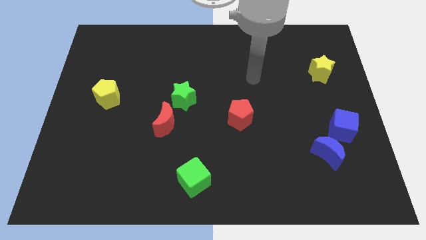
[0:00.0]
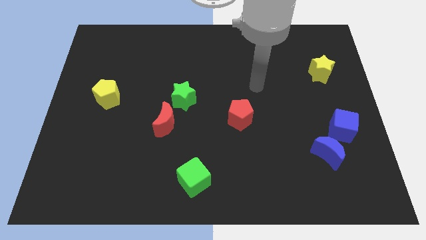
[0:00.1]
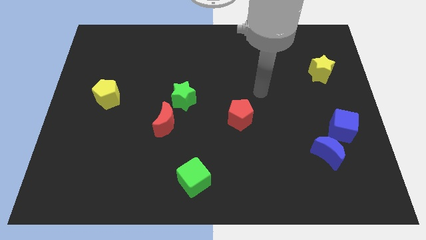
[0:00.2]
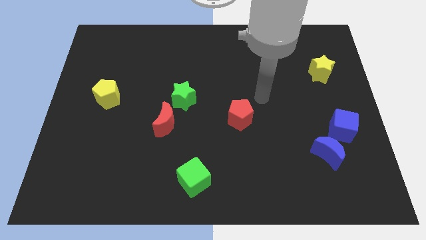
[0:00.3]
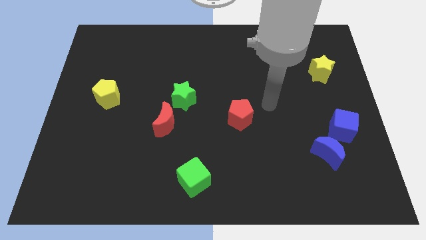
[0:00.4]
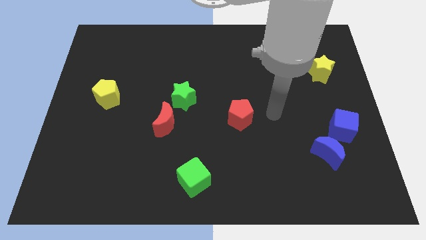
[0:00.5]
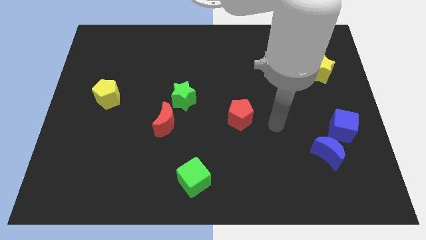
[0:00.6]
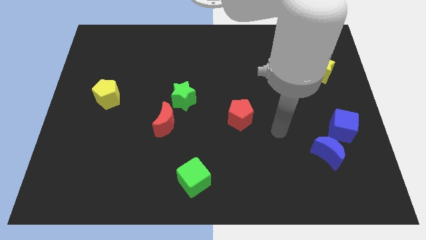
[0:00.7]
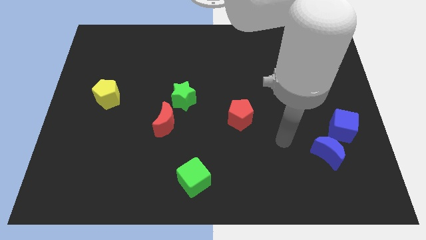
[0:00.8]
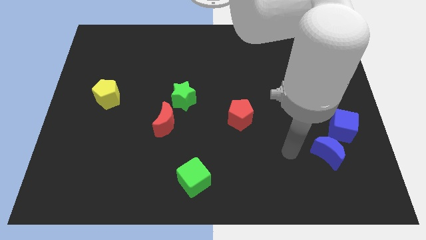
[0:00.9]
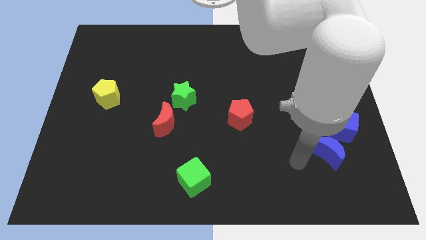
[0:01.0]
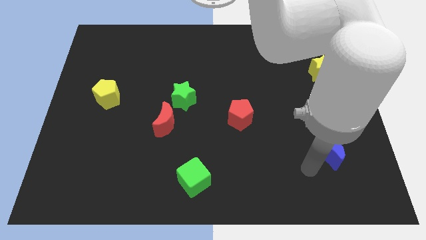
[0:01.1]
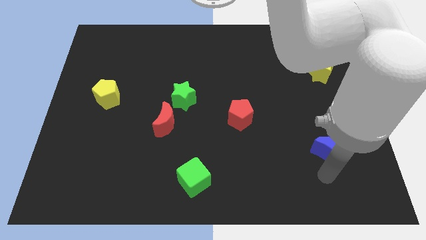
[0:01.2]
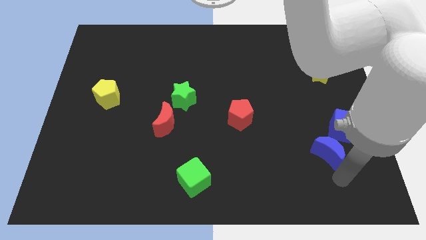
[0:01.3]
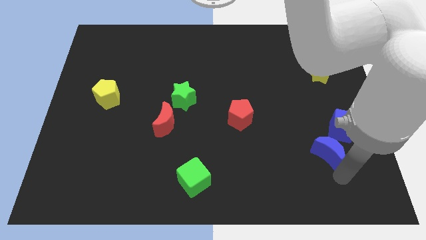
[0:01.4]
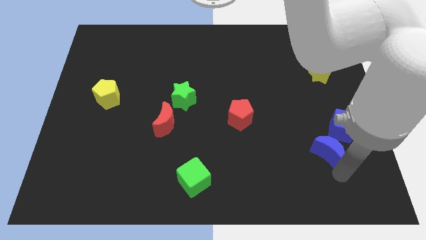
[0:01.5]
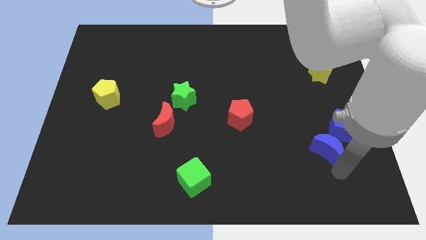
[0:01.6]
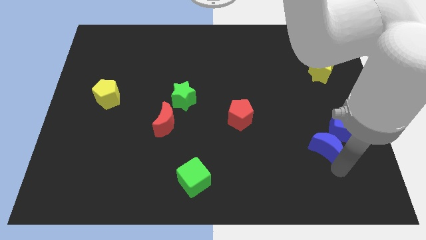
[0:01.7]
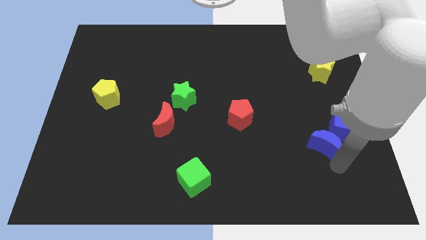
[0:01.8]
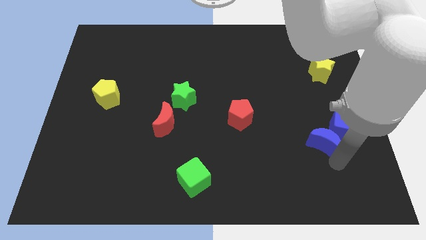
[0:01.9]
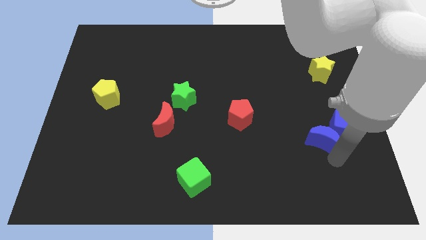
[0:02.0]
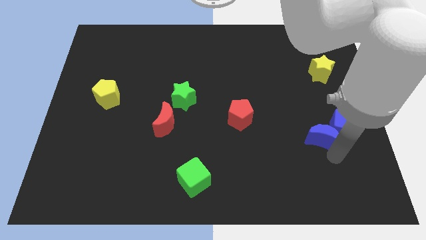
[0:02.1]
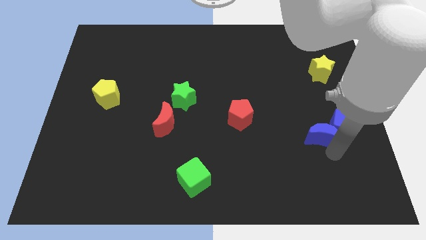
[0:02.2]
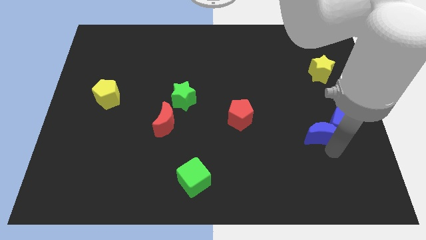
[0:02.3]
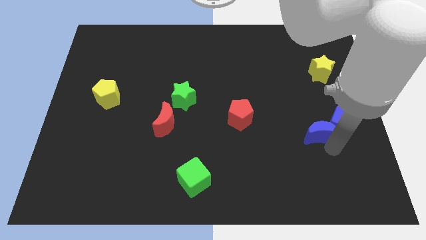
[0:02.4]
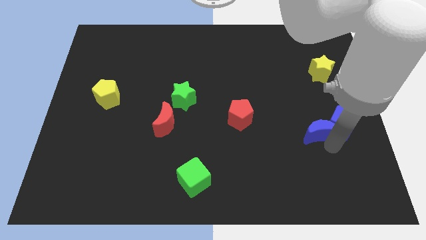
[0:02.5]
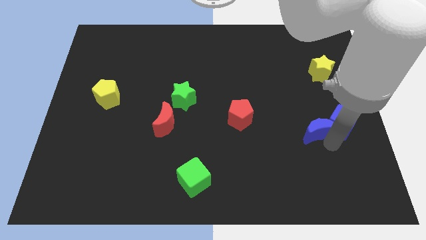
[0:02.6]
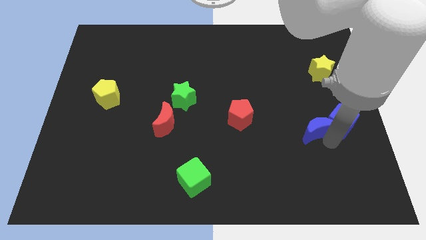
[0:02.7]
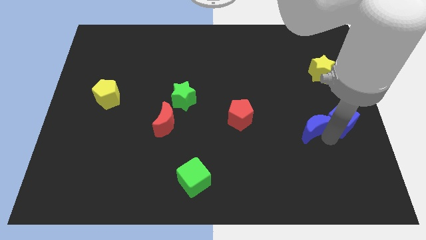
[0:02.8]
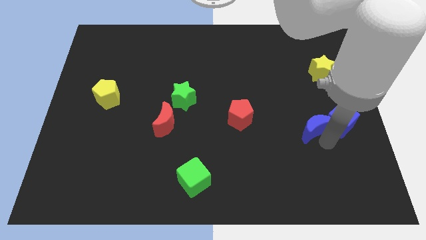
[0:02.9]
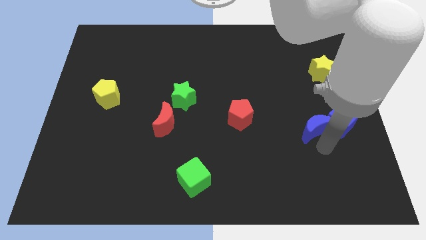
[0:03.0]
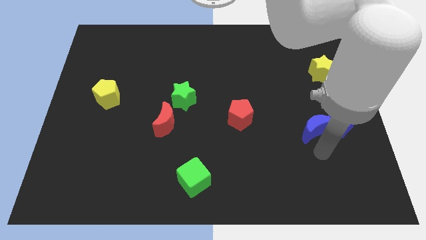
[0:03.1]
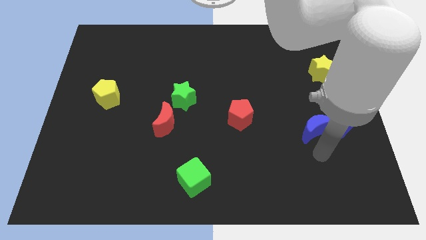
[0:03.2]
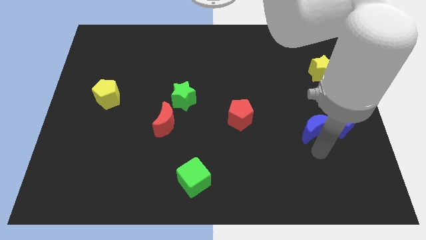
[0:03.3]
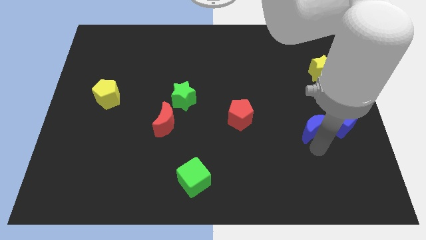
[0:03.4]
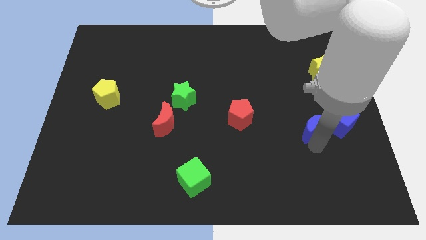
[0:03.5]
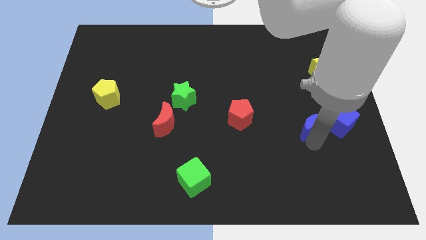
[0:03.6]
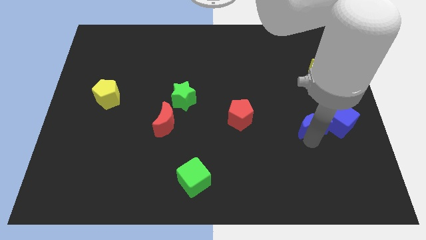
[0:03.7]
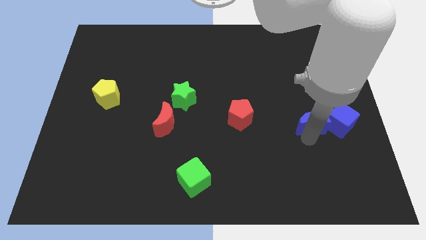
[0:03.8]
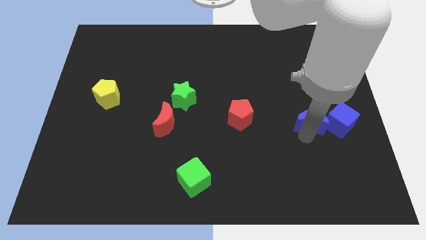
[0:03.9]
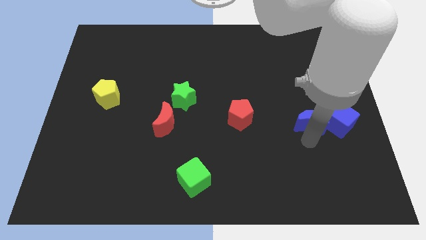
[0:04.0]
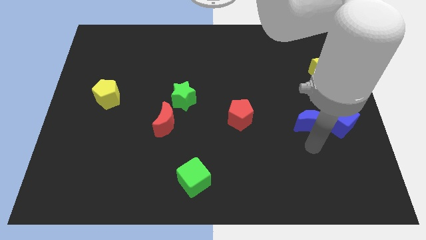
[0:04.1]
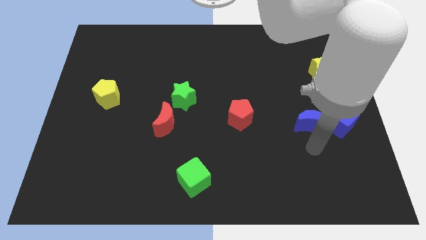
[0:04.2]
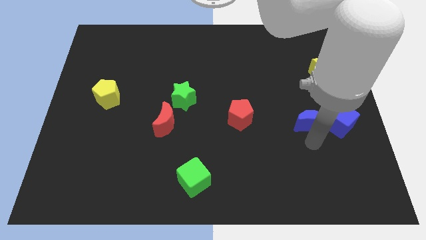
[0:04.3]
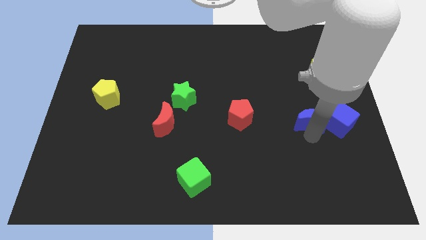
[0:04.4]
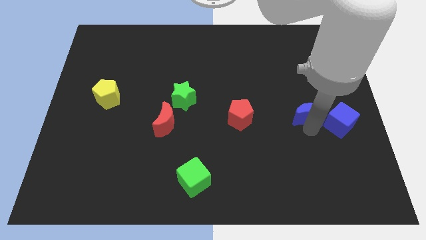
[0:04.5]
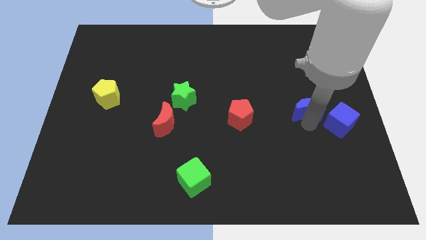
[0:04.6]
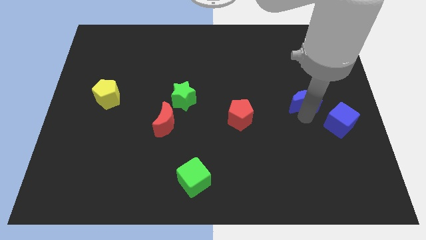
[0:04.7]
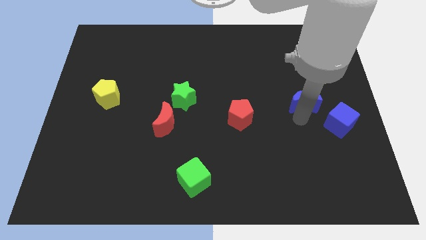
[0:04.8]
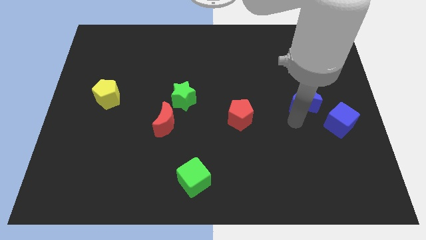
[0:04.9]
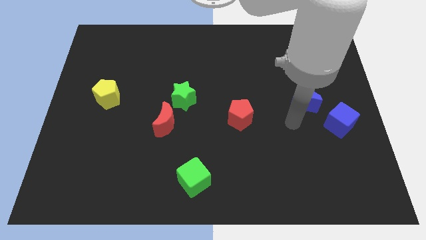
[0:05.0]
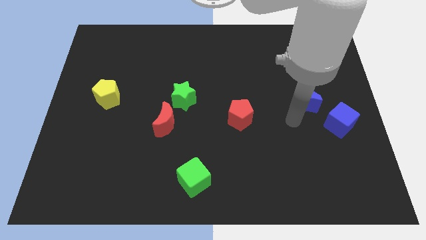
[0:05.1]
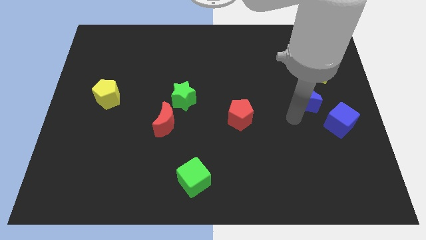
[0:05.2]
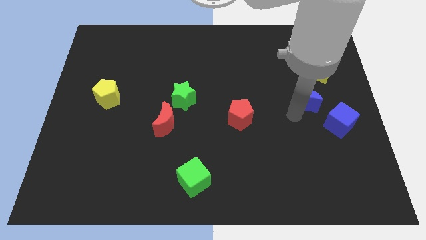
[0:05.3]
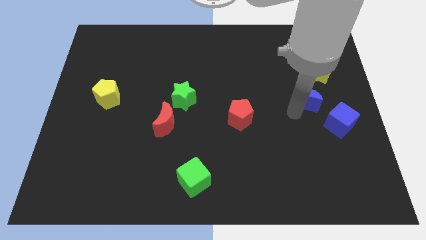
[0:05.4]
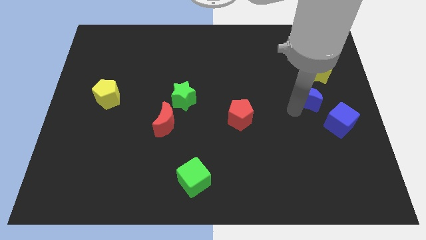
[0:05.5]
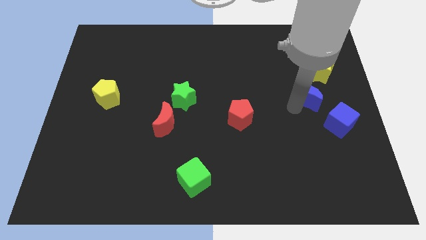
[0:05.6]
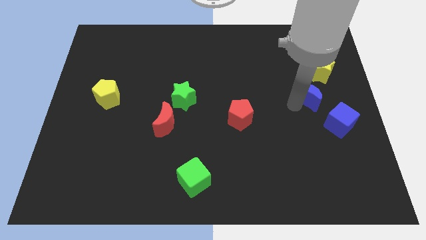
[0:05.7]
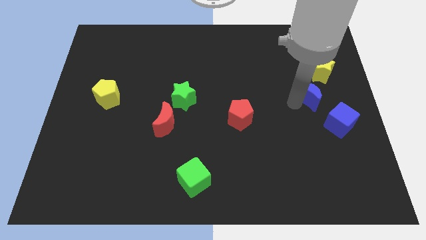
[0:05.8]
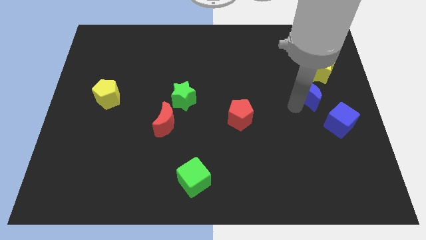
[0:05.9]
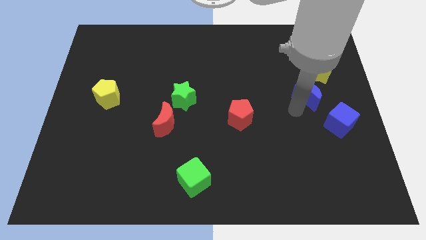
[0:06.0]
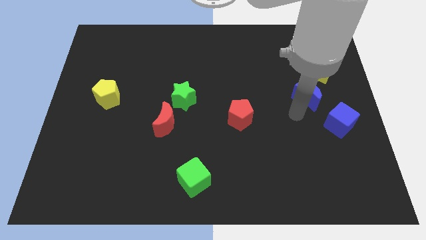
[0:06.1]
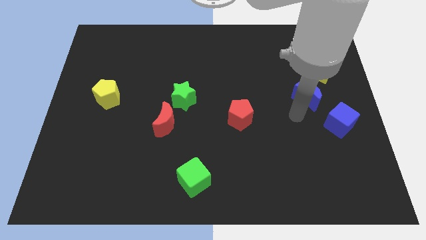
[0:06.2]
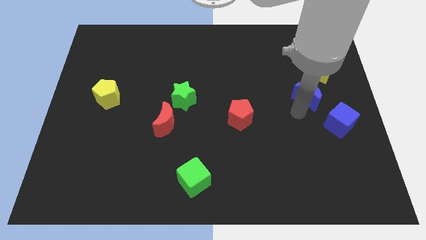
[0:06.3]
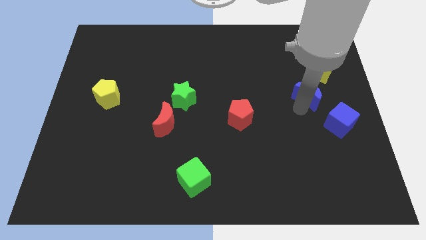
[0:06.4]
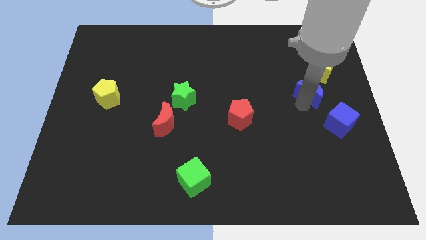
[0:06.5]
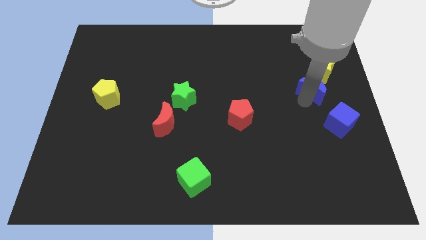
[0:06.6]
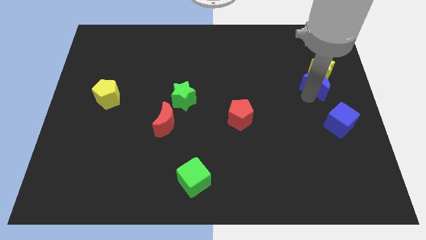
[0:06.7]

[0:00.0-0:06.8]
put the blue moon close to the yellow star

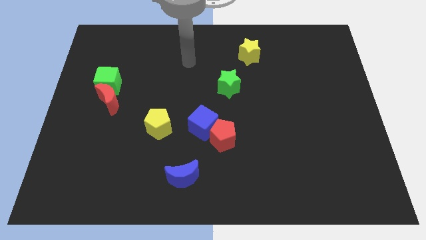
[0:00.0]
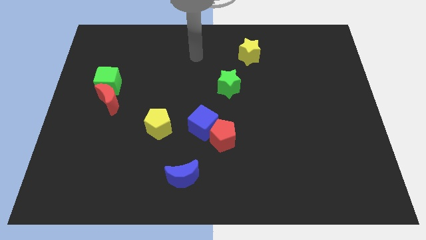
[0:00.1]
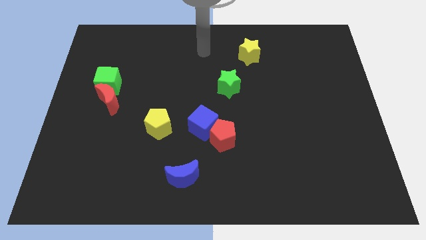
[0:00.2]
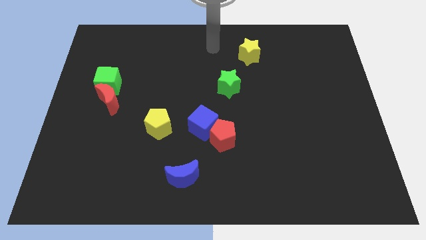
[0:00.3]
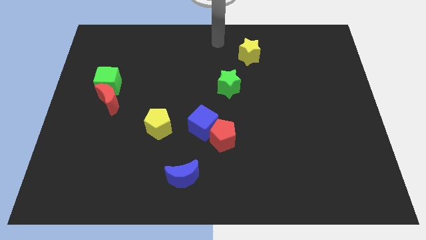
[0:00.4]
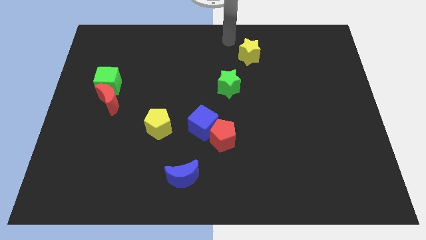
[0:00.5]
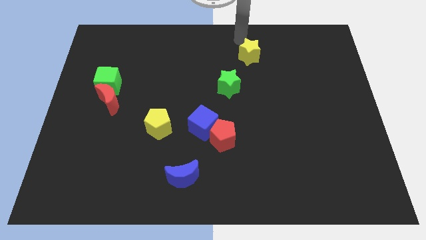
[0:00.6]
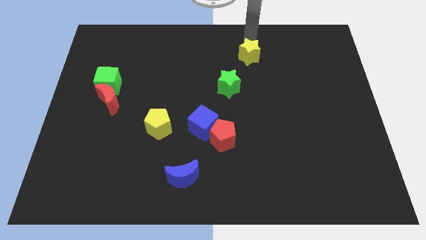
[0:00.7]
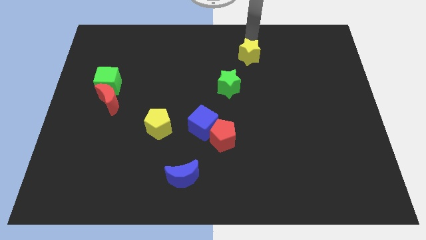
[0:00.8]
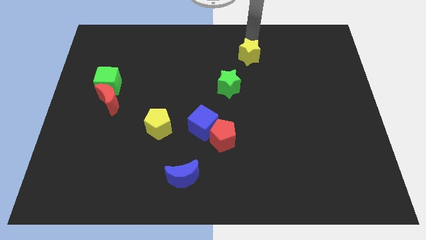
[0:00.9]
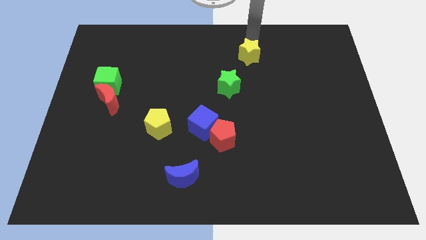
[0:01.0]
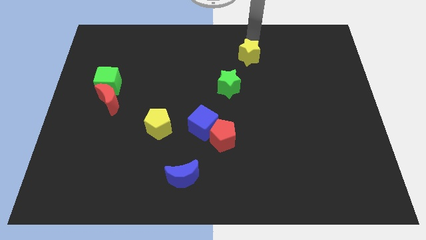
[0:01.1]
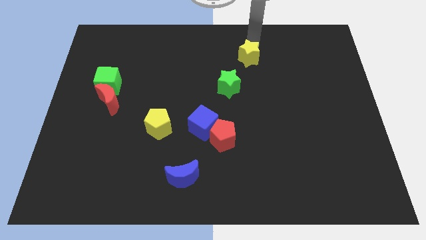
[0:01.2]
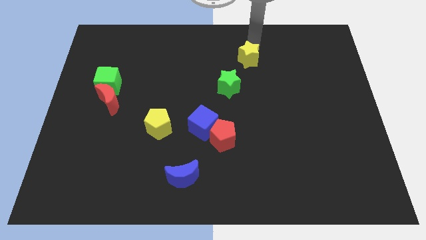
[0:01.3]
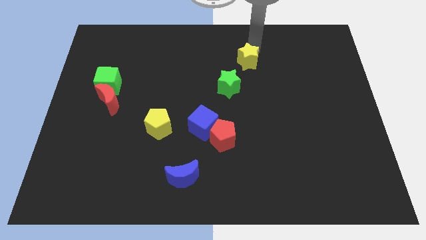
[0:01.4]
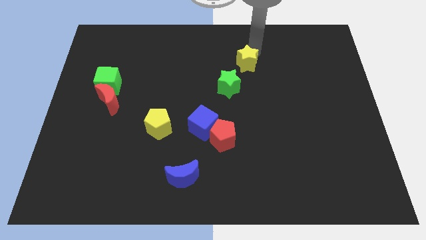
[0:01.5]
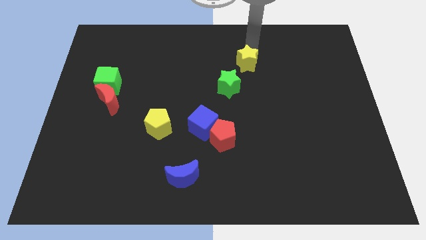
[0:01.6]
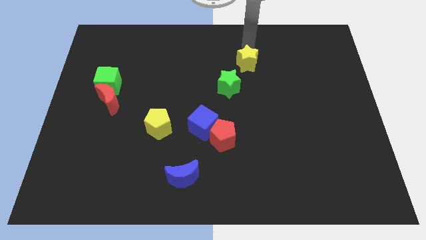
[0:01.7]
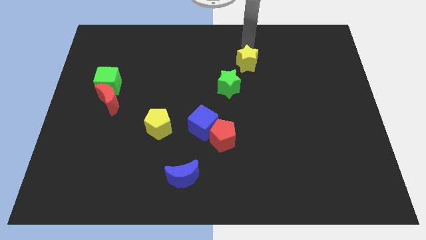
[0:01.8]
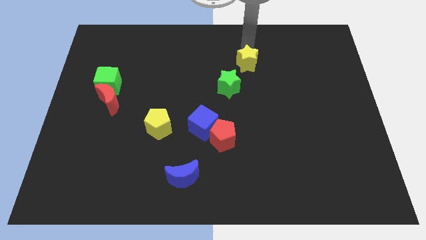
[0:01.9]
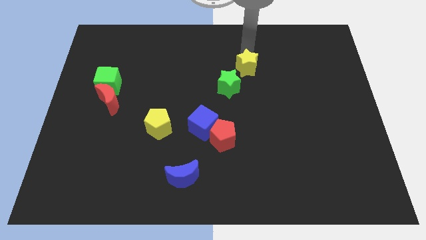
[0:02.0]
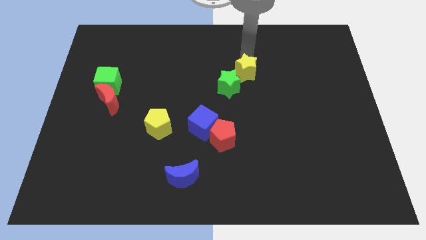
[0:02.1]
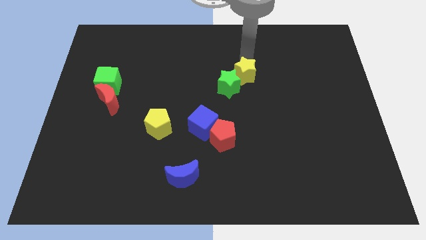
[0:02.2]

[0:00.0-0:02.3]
slide the yellow star towards the green star
